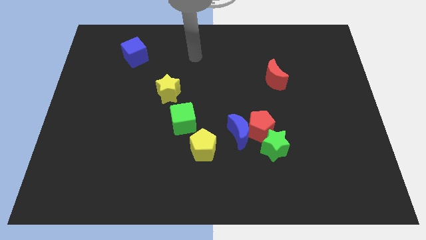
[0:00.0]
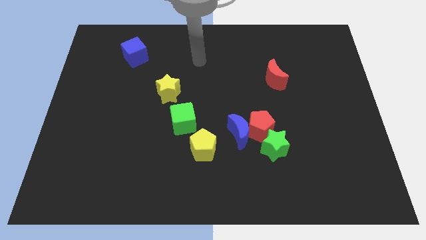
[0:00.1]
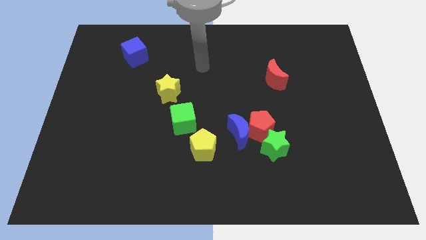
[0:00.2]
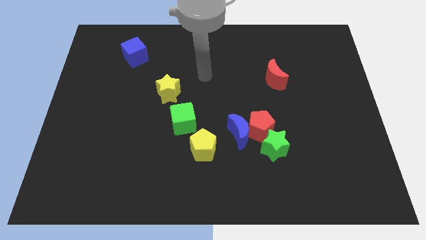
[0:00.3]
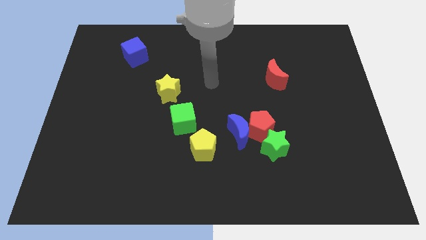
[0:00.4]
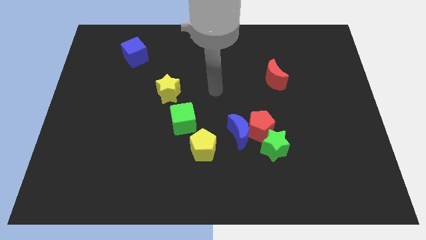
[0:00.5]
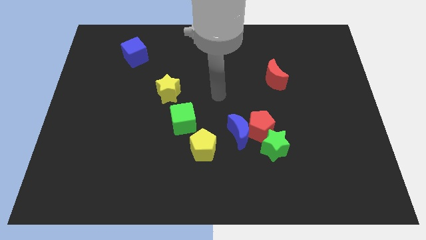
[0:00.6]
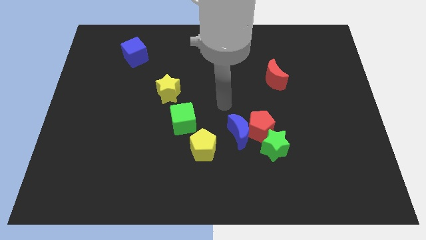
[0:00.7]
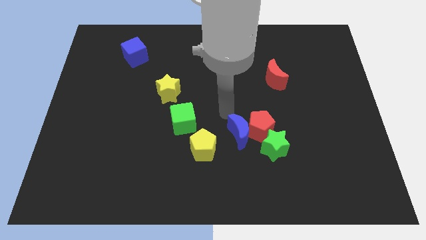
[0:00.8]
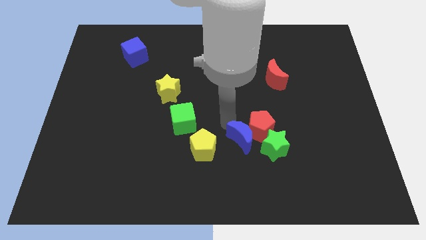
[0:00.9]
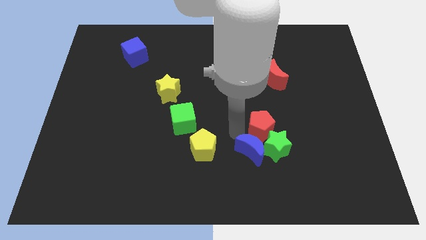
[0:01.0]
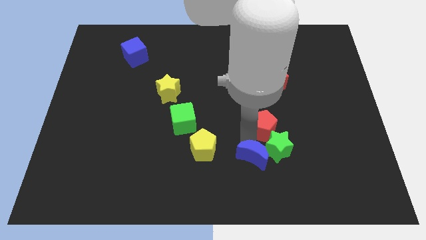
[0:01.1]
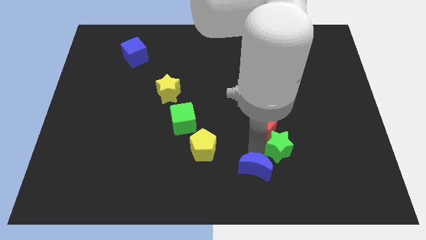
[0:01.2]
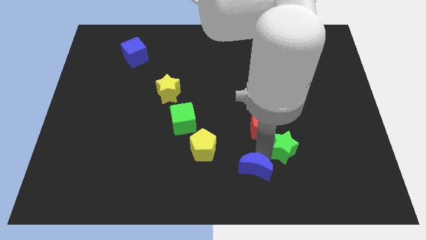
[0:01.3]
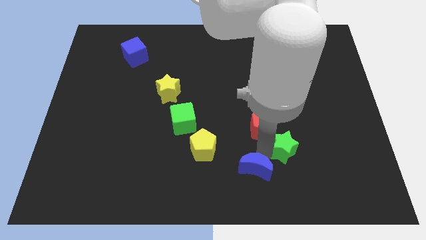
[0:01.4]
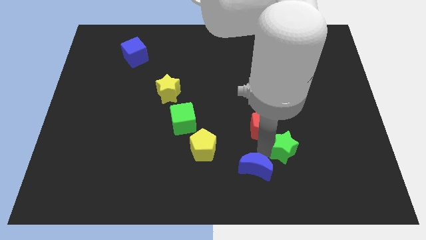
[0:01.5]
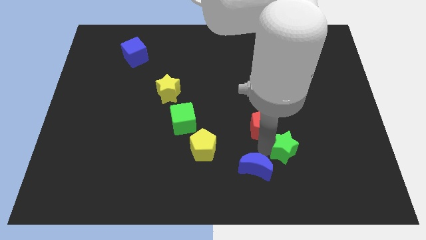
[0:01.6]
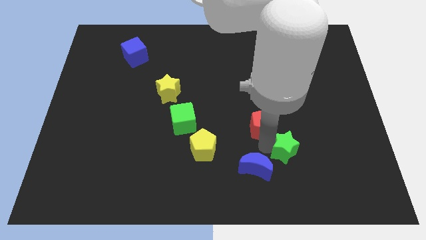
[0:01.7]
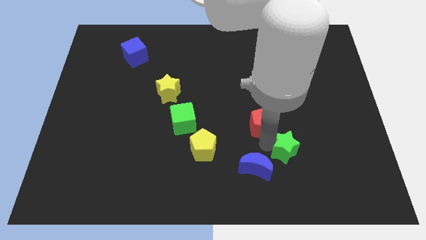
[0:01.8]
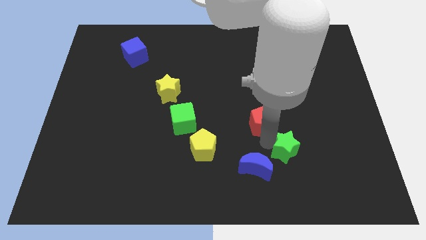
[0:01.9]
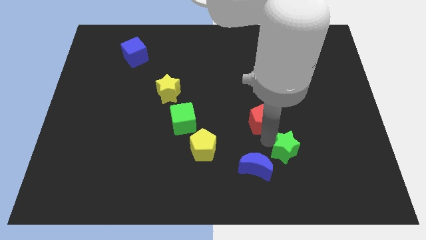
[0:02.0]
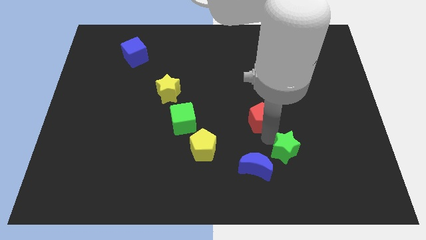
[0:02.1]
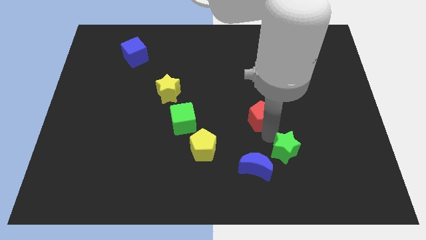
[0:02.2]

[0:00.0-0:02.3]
separate the red pentagon from the blue moon and green star

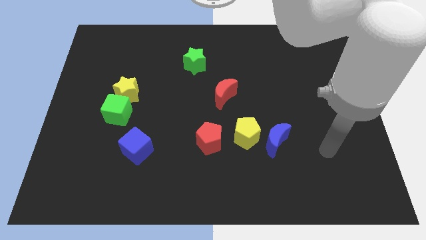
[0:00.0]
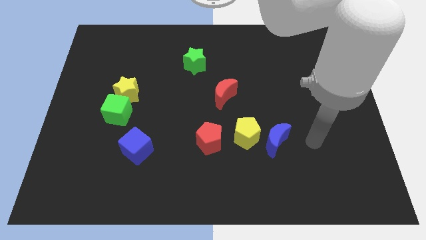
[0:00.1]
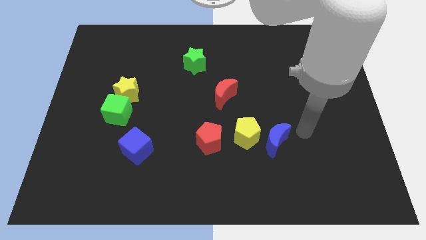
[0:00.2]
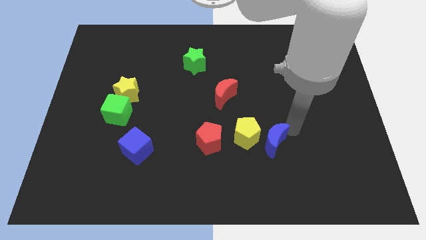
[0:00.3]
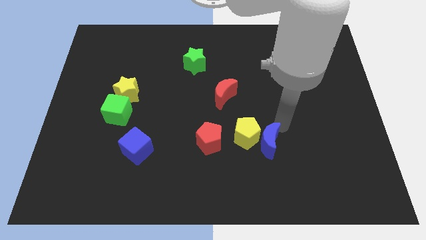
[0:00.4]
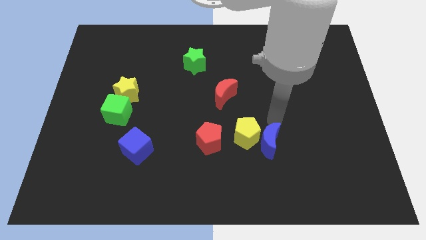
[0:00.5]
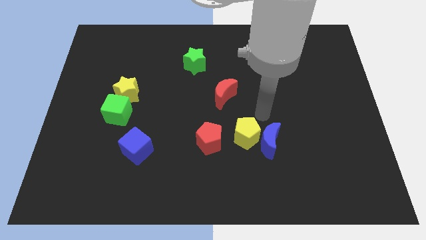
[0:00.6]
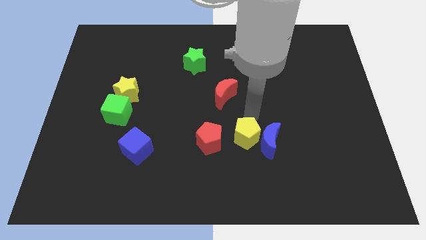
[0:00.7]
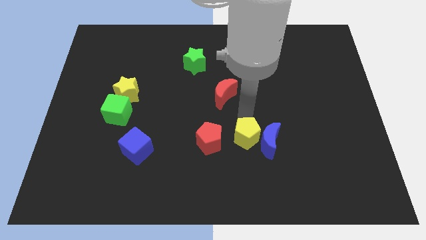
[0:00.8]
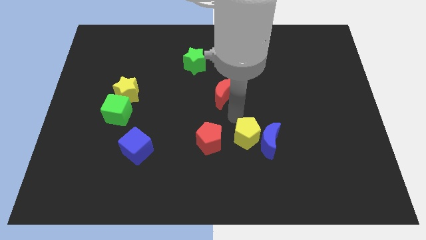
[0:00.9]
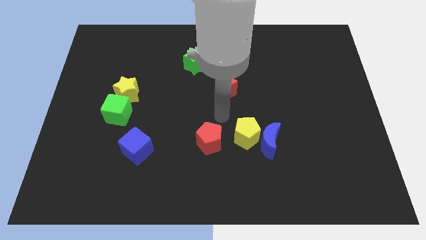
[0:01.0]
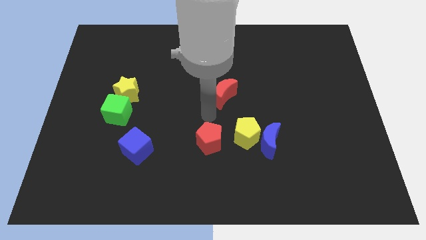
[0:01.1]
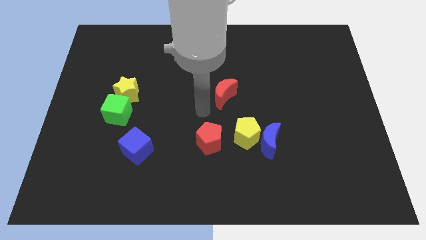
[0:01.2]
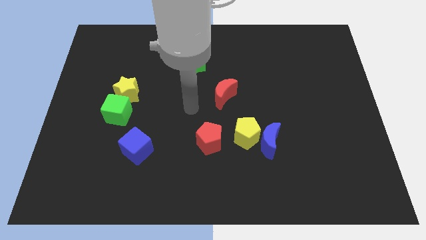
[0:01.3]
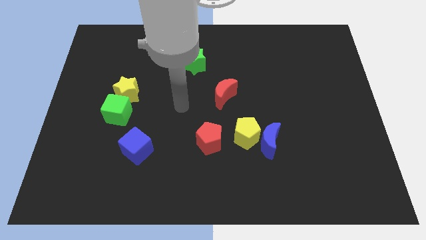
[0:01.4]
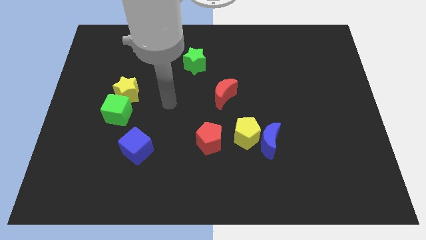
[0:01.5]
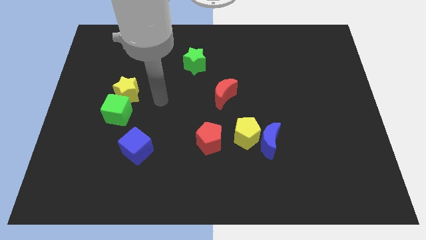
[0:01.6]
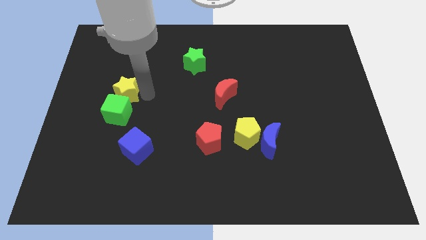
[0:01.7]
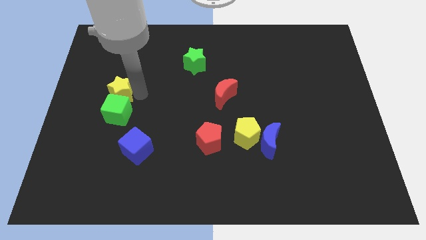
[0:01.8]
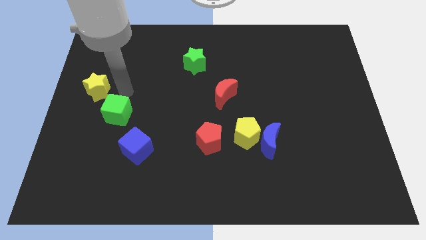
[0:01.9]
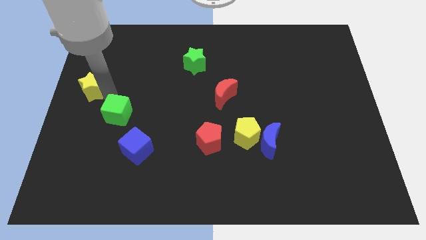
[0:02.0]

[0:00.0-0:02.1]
pull the green cube apart from the yellow star

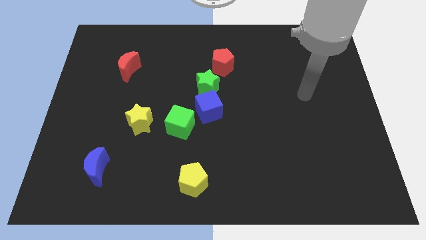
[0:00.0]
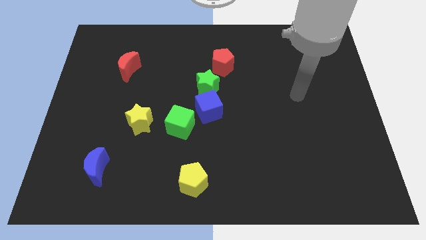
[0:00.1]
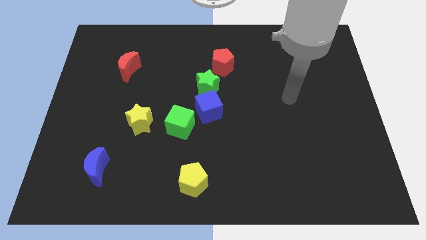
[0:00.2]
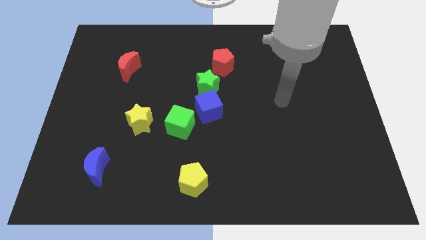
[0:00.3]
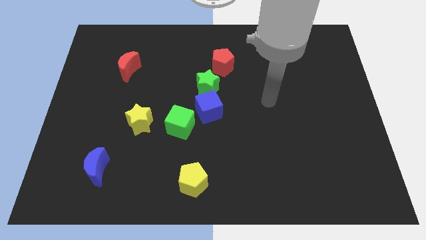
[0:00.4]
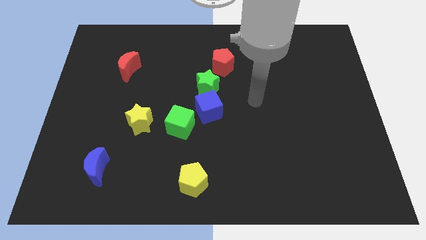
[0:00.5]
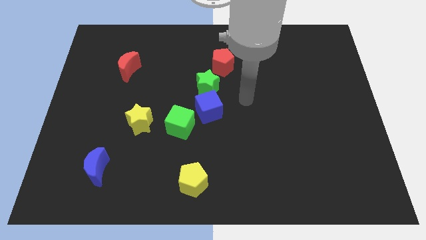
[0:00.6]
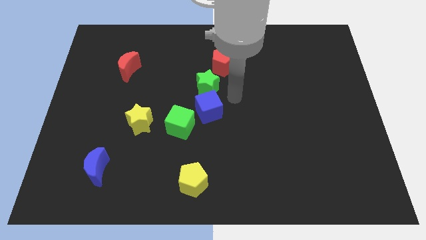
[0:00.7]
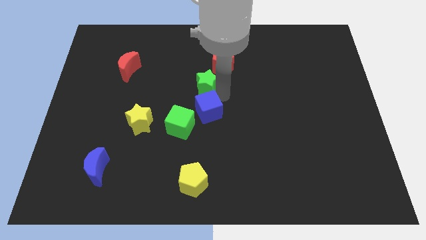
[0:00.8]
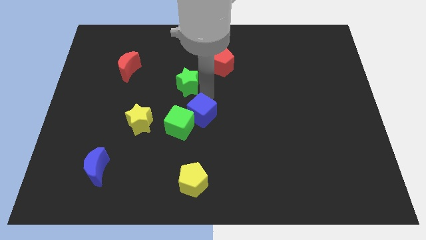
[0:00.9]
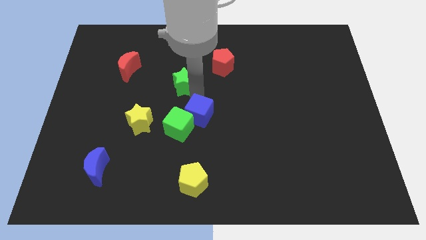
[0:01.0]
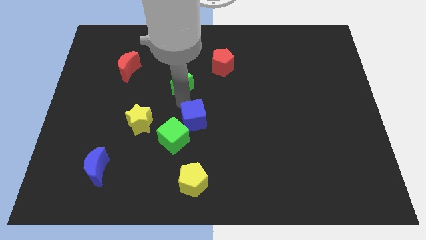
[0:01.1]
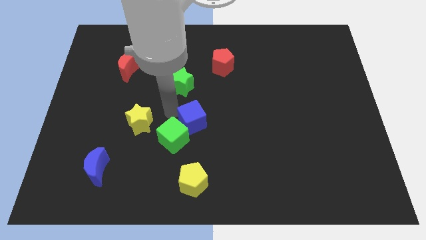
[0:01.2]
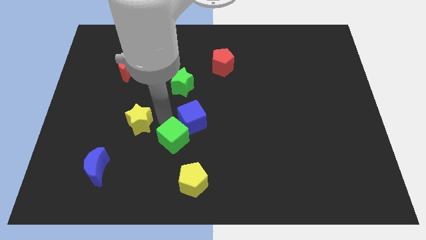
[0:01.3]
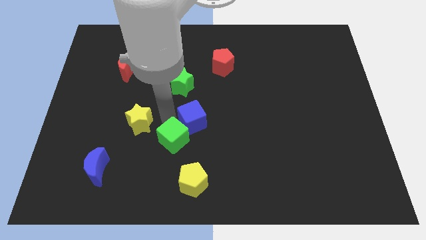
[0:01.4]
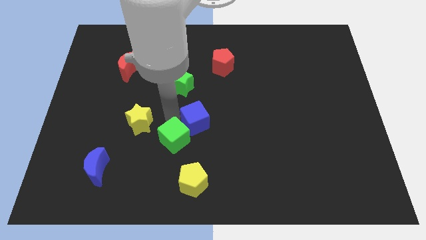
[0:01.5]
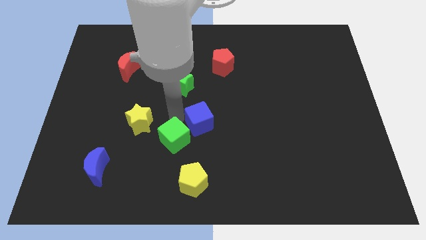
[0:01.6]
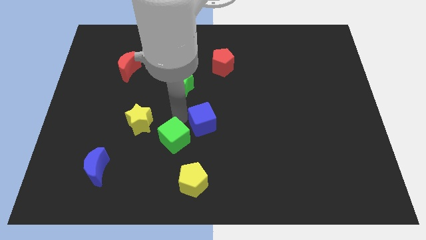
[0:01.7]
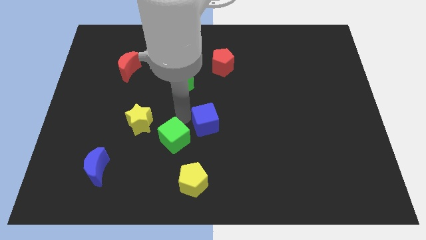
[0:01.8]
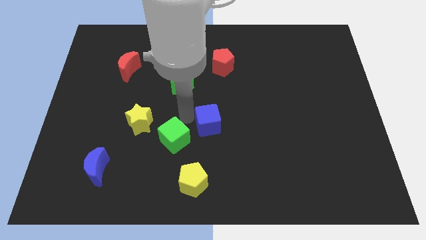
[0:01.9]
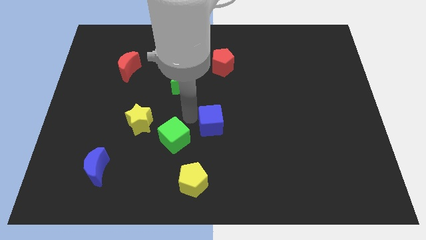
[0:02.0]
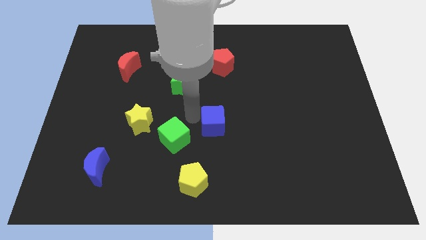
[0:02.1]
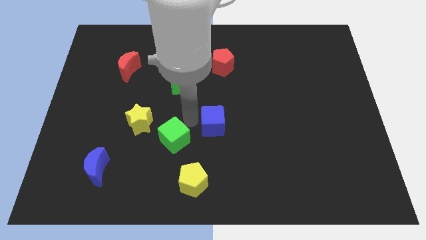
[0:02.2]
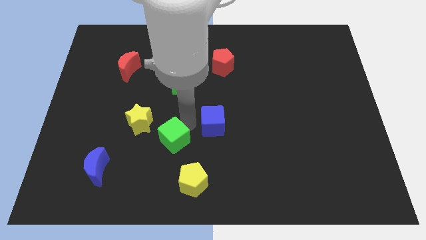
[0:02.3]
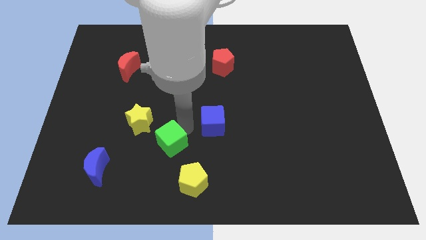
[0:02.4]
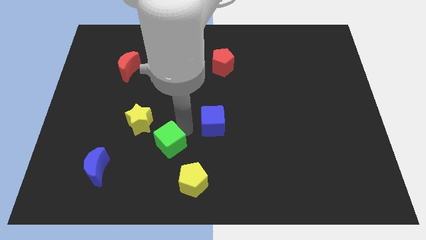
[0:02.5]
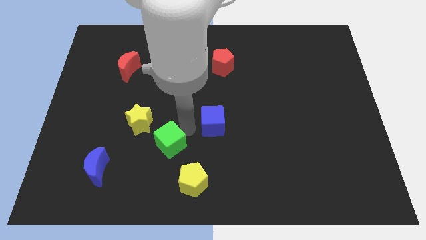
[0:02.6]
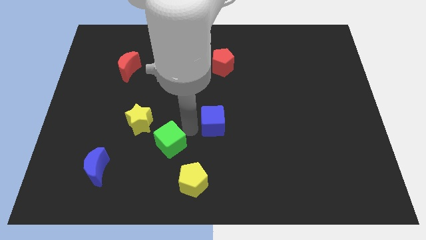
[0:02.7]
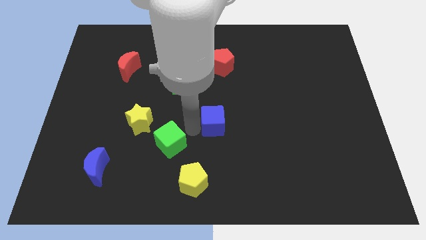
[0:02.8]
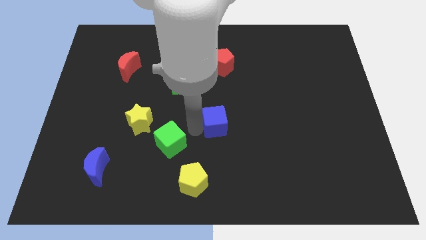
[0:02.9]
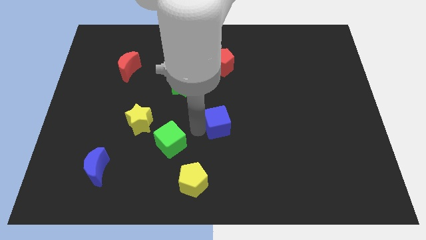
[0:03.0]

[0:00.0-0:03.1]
move the blue cube away from the green star and green cube

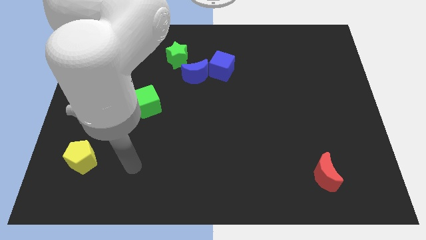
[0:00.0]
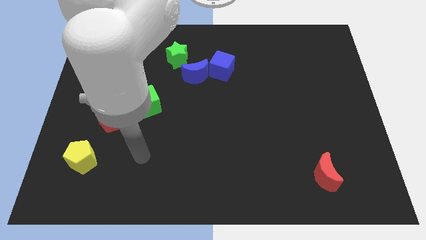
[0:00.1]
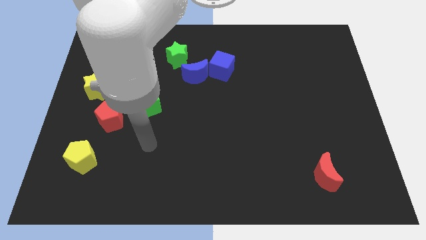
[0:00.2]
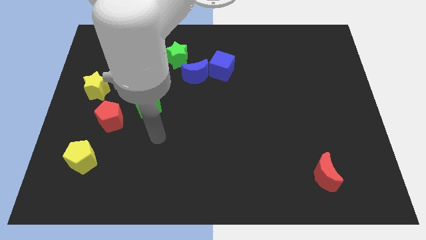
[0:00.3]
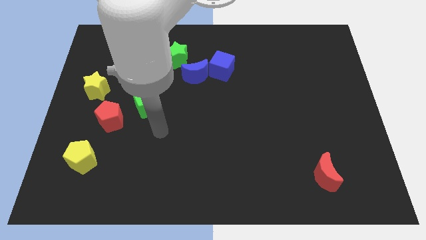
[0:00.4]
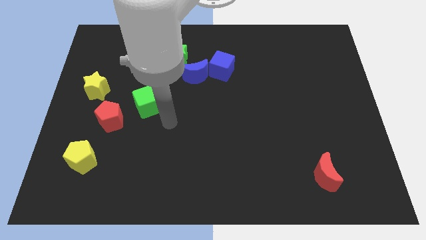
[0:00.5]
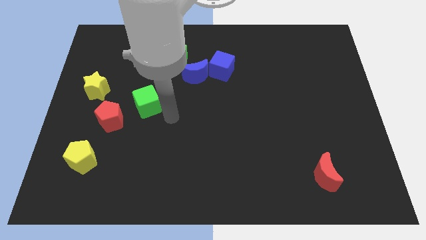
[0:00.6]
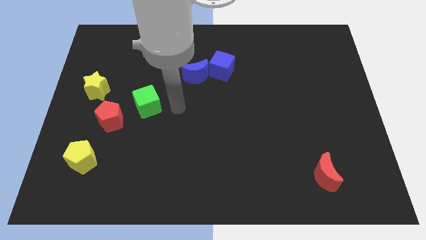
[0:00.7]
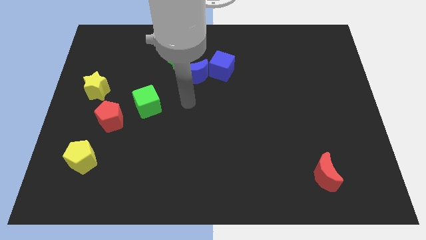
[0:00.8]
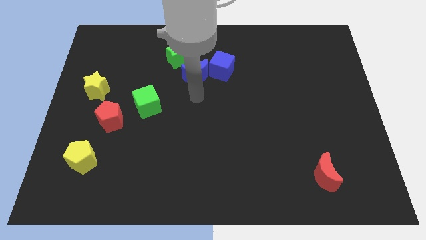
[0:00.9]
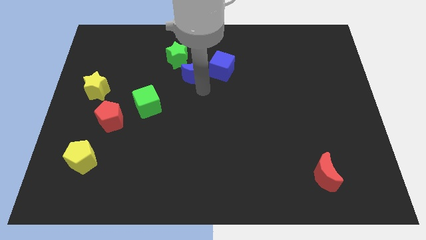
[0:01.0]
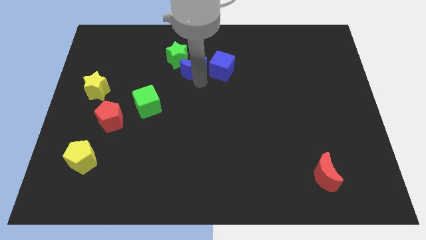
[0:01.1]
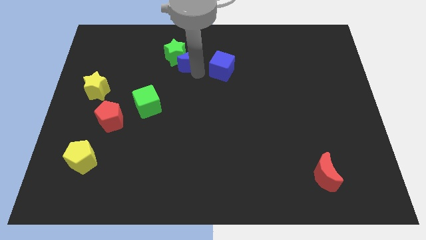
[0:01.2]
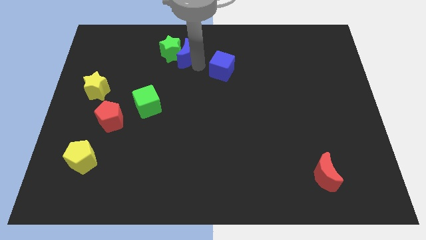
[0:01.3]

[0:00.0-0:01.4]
separate the blue cube from the blue moon

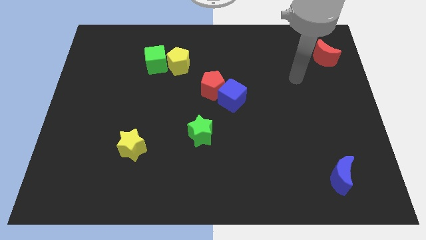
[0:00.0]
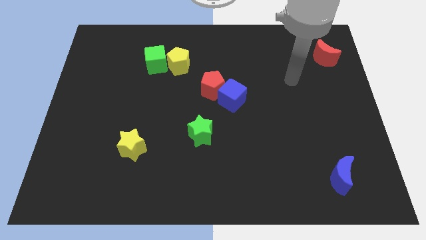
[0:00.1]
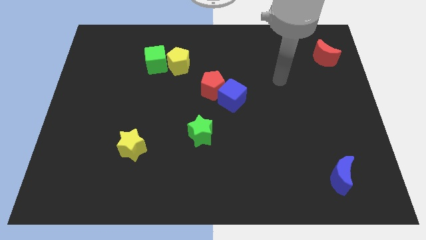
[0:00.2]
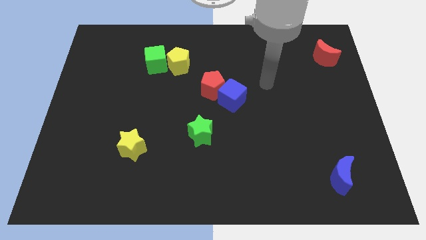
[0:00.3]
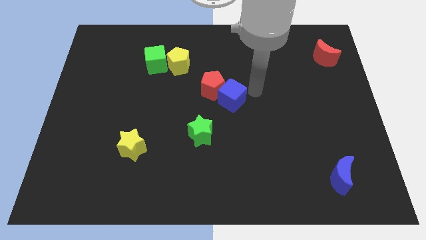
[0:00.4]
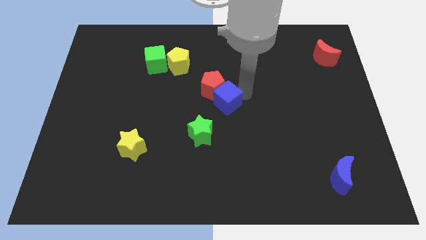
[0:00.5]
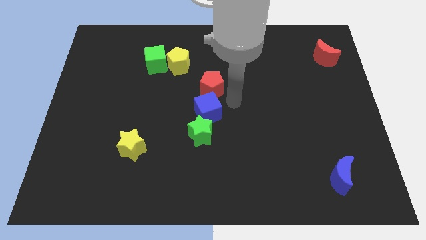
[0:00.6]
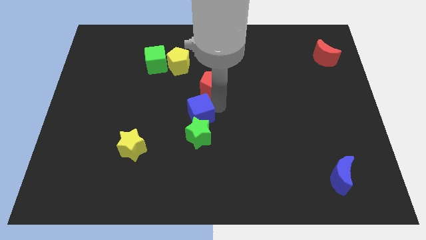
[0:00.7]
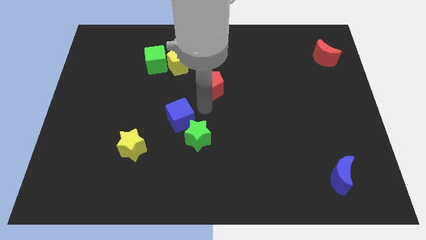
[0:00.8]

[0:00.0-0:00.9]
move the red pentagon away from the blue cube
